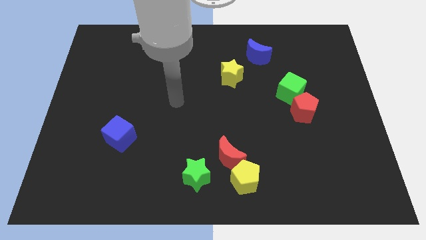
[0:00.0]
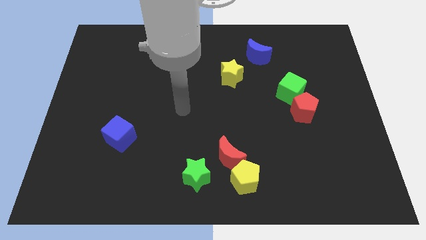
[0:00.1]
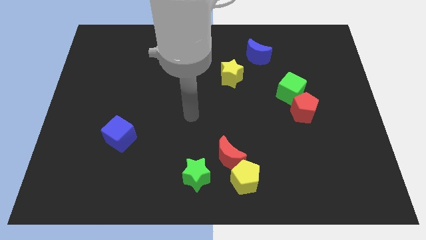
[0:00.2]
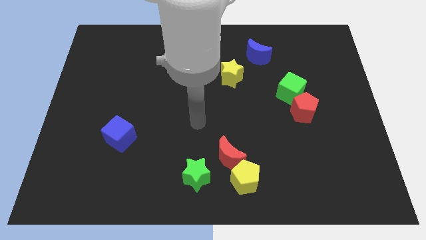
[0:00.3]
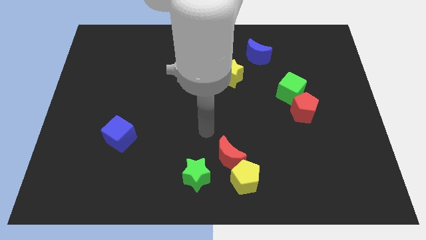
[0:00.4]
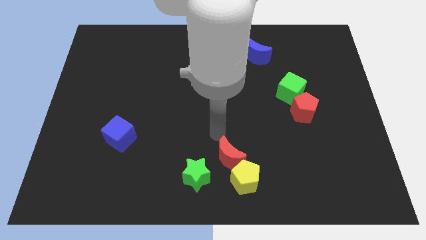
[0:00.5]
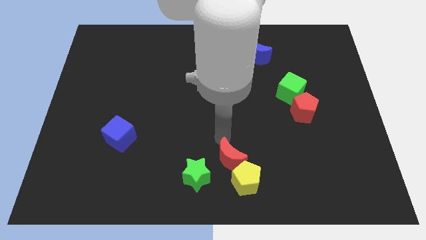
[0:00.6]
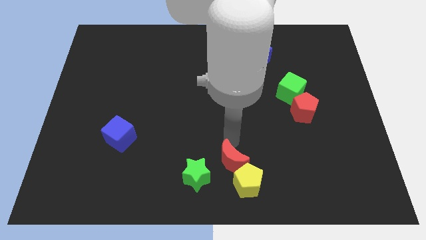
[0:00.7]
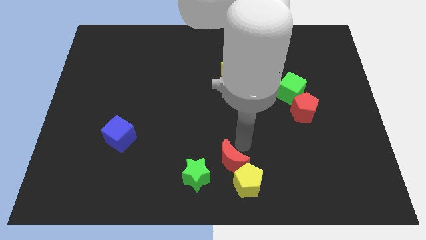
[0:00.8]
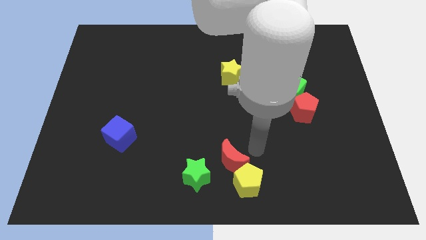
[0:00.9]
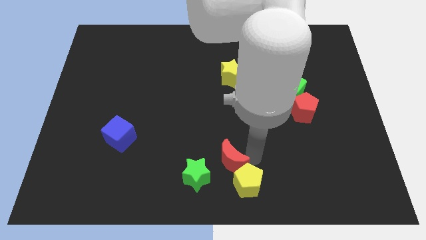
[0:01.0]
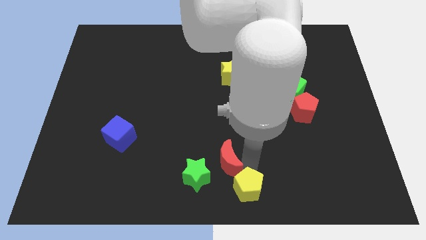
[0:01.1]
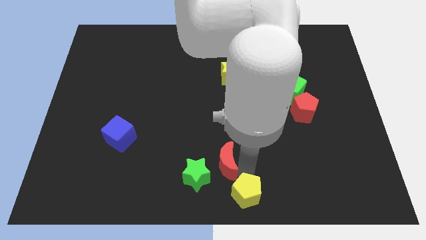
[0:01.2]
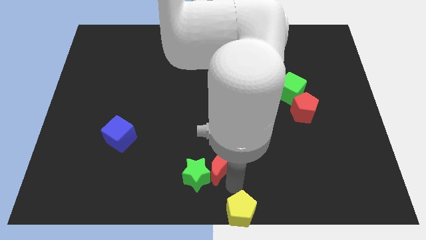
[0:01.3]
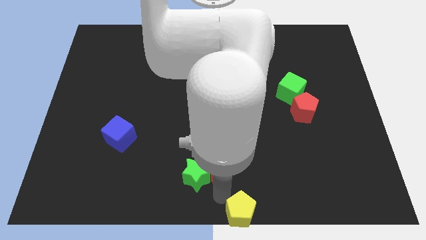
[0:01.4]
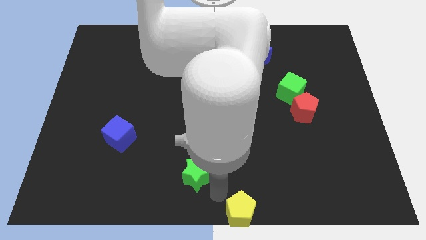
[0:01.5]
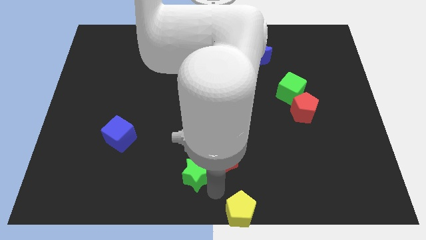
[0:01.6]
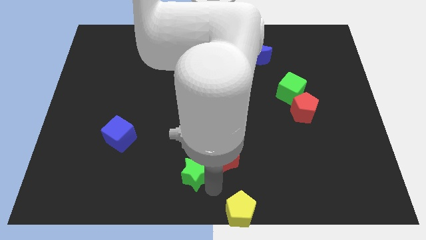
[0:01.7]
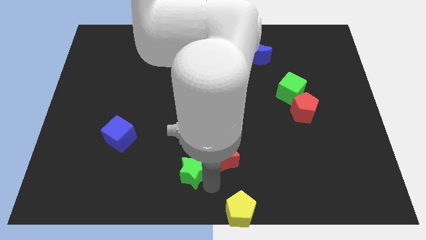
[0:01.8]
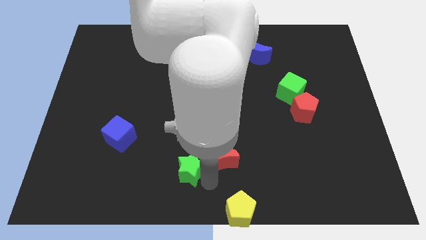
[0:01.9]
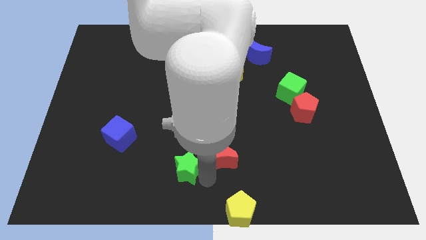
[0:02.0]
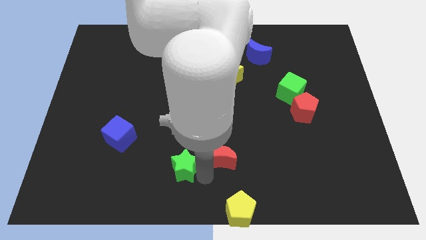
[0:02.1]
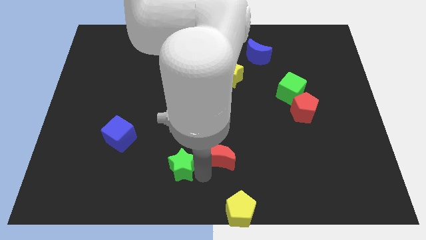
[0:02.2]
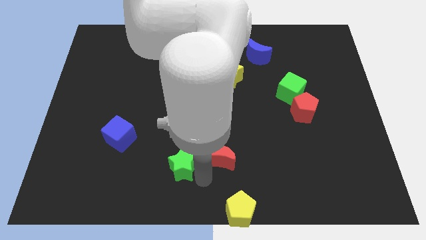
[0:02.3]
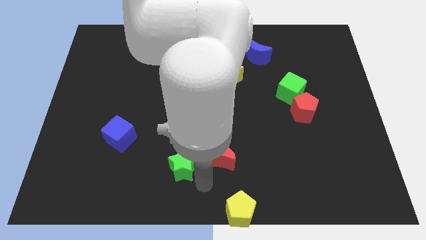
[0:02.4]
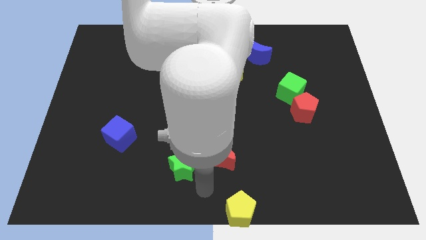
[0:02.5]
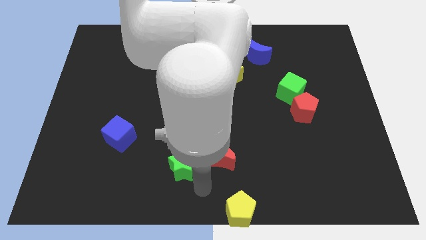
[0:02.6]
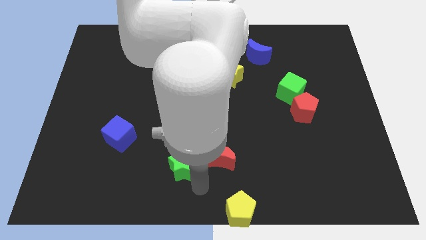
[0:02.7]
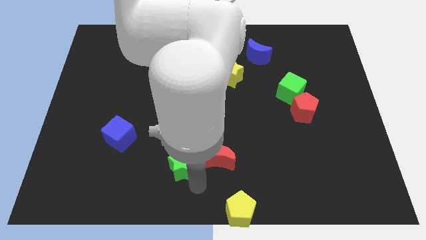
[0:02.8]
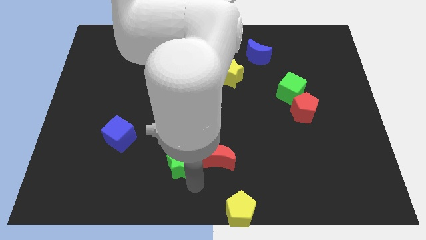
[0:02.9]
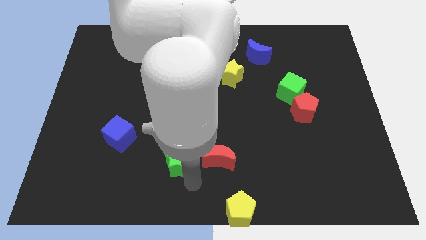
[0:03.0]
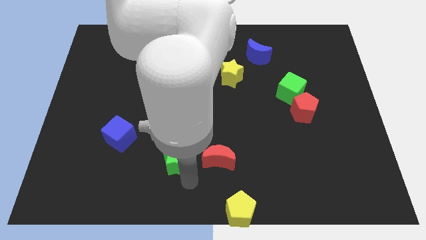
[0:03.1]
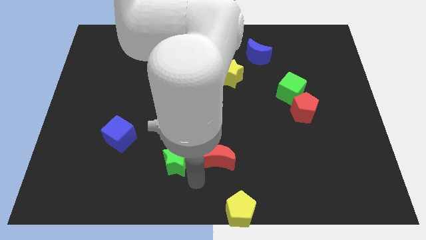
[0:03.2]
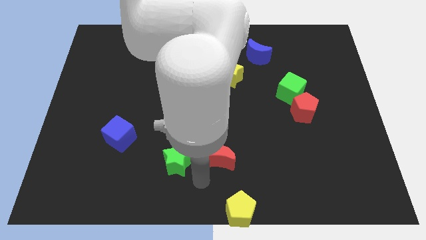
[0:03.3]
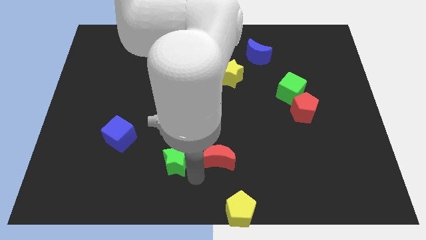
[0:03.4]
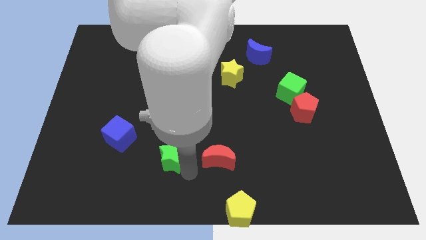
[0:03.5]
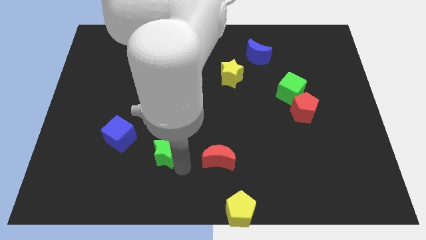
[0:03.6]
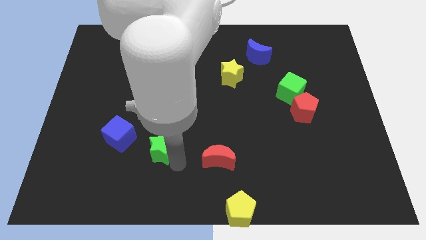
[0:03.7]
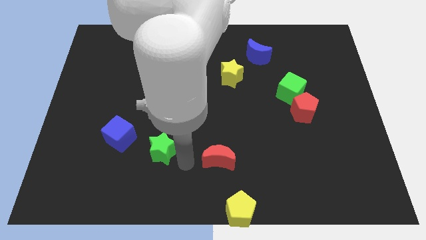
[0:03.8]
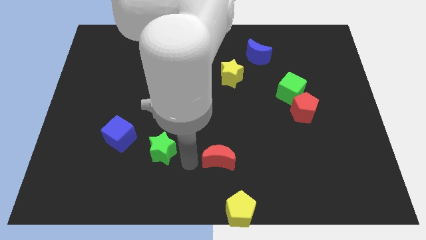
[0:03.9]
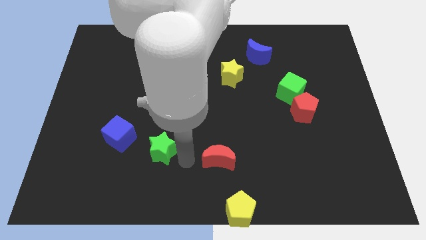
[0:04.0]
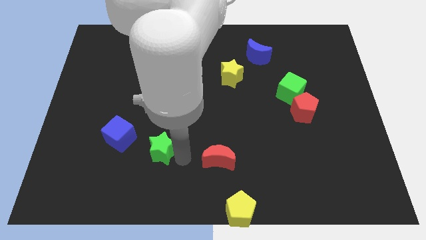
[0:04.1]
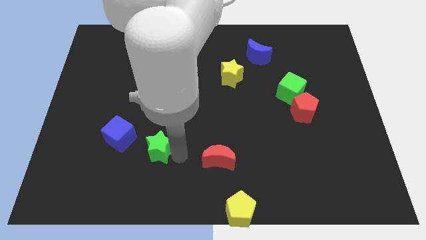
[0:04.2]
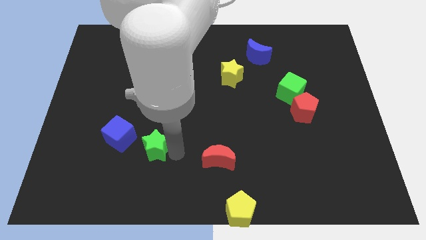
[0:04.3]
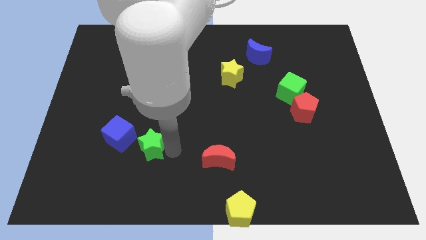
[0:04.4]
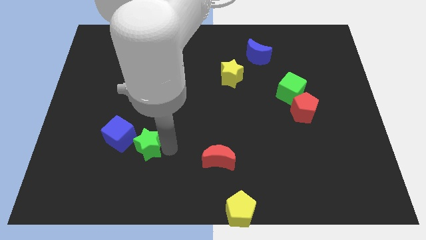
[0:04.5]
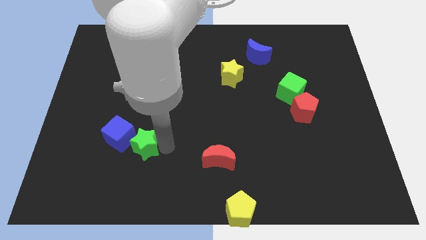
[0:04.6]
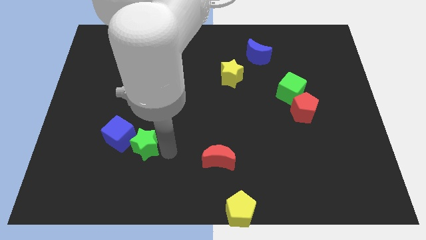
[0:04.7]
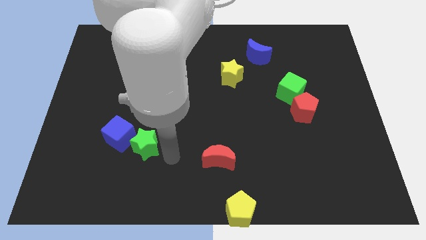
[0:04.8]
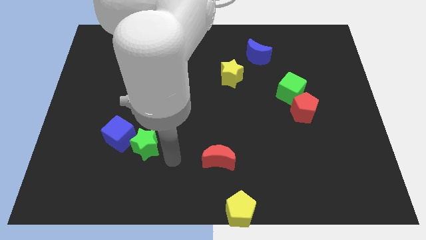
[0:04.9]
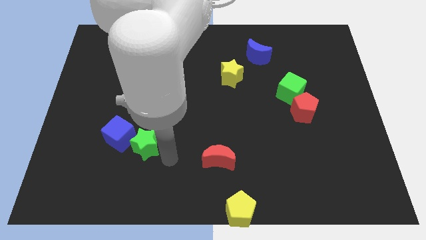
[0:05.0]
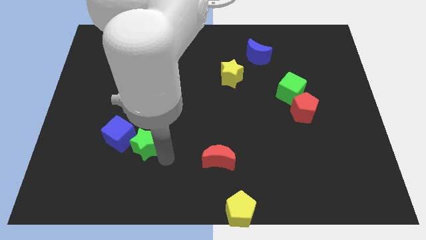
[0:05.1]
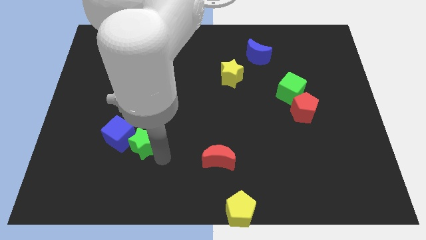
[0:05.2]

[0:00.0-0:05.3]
slide the green star towards the blue cube

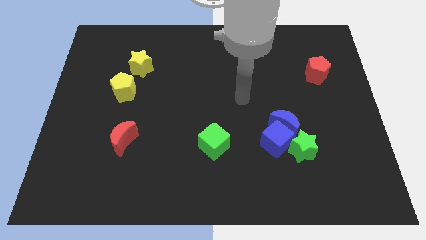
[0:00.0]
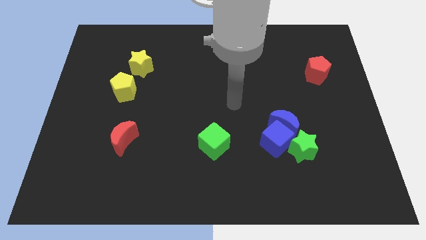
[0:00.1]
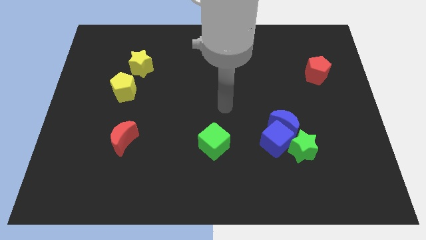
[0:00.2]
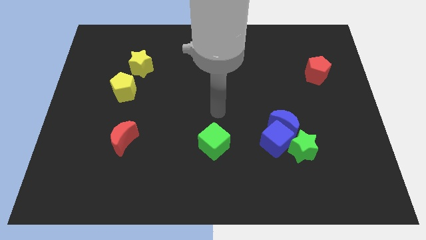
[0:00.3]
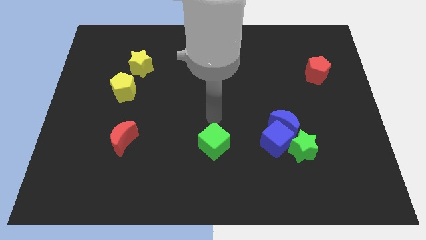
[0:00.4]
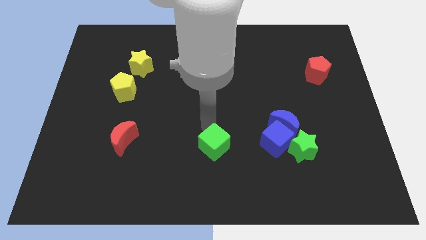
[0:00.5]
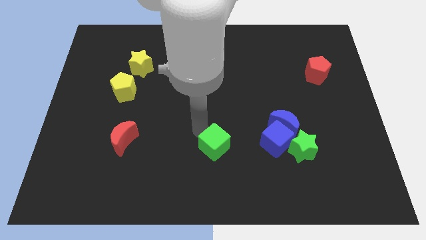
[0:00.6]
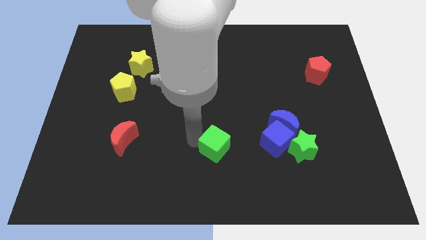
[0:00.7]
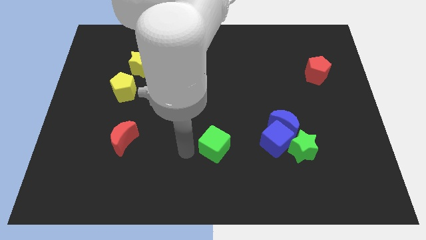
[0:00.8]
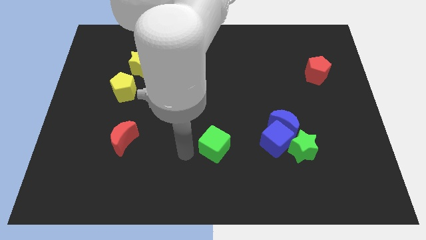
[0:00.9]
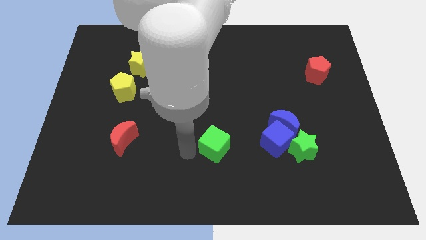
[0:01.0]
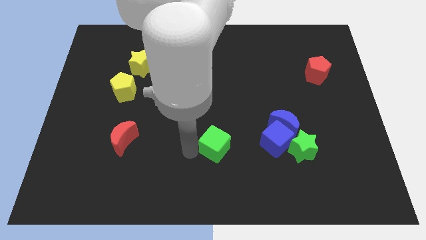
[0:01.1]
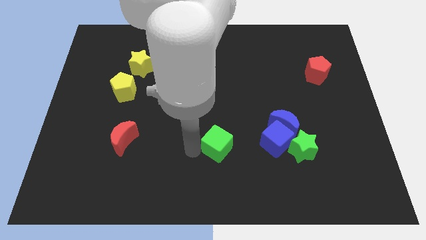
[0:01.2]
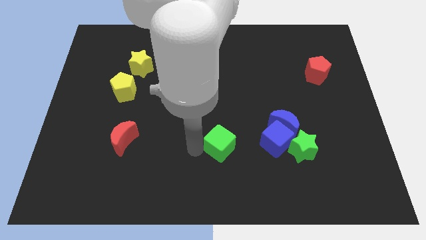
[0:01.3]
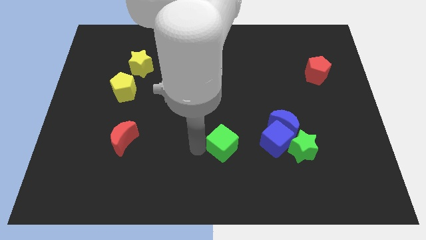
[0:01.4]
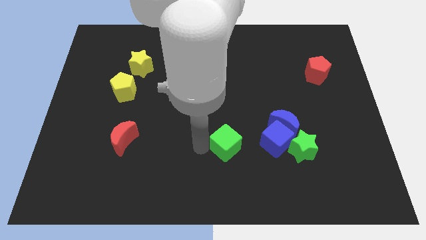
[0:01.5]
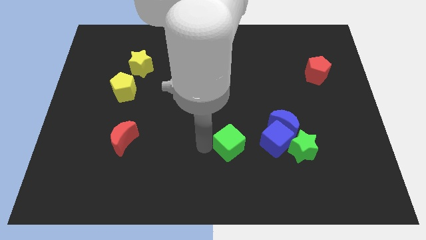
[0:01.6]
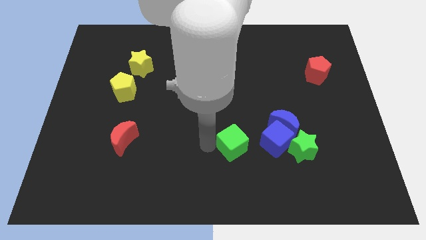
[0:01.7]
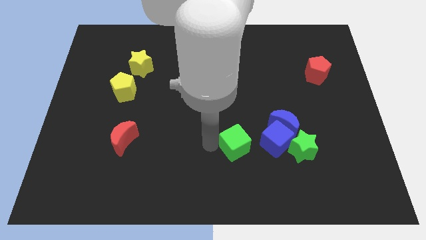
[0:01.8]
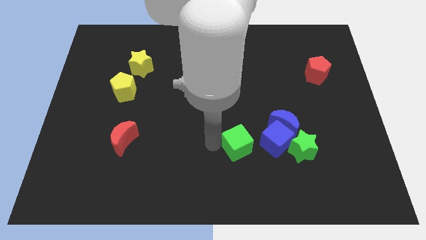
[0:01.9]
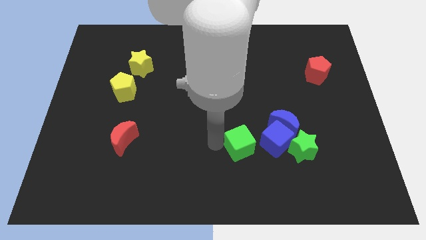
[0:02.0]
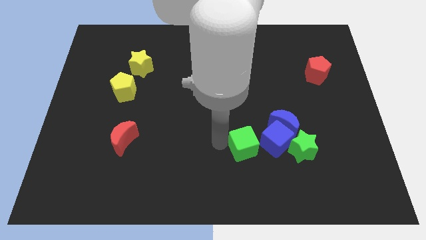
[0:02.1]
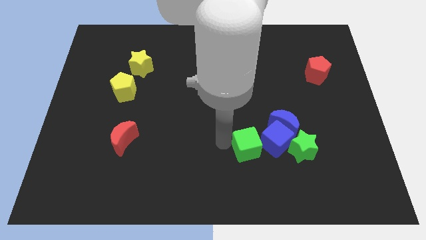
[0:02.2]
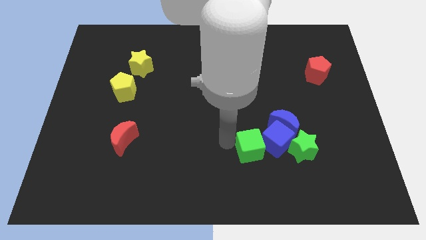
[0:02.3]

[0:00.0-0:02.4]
push the green cube to the blue cube
